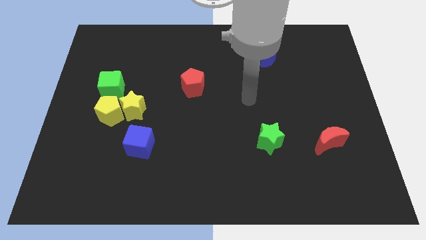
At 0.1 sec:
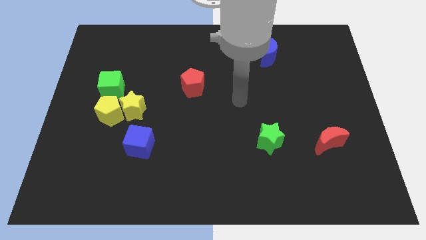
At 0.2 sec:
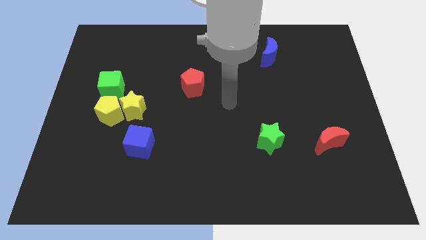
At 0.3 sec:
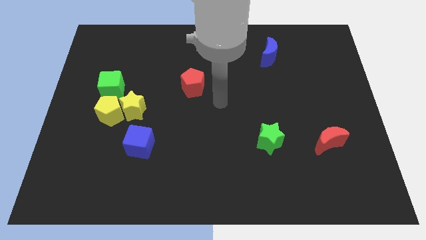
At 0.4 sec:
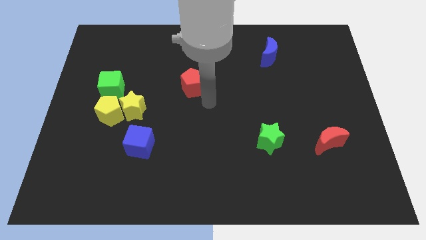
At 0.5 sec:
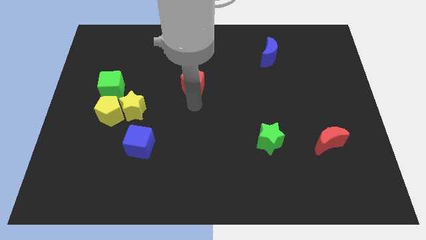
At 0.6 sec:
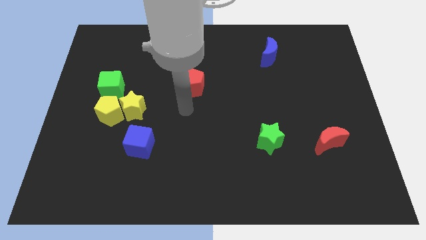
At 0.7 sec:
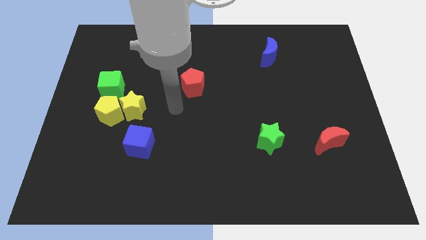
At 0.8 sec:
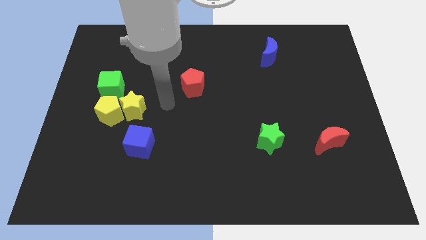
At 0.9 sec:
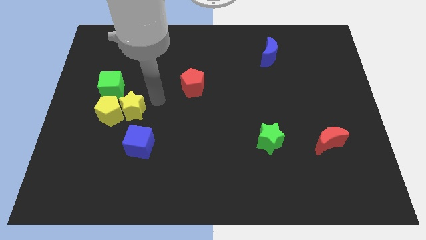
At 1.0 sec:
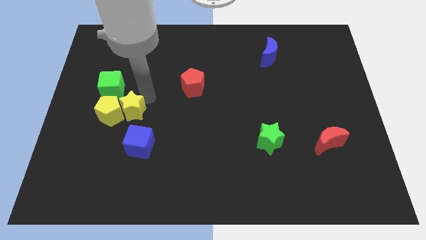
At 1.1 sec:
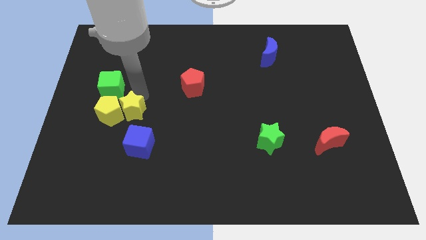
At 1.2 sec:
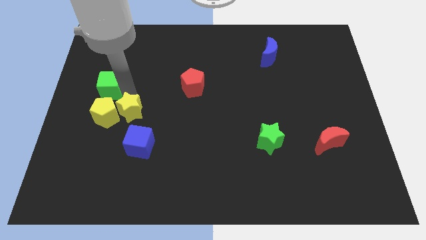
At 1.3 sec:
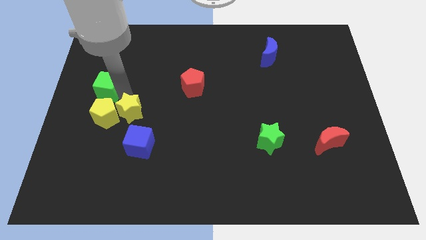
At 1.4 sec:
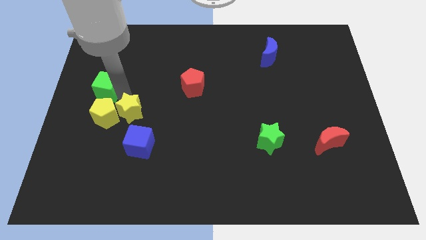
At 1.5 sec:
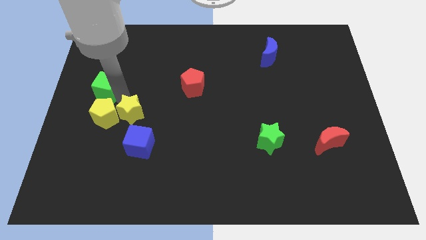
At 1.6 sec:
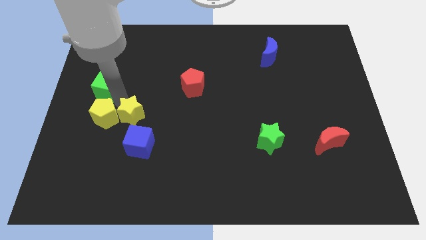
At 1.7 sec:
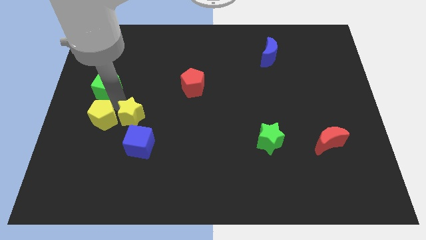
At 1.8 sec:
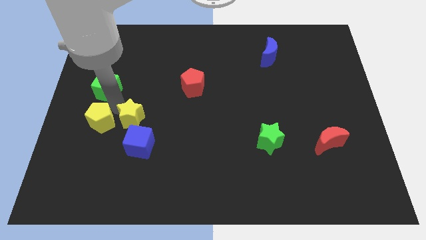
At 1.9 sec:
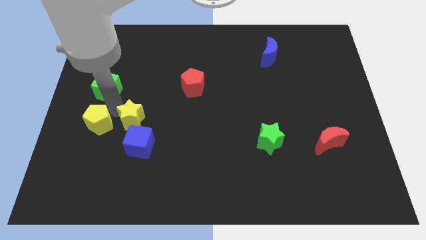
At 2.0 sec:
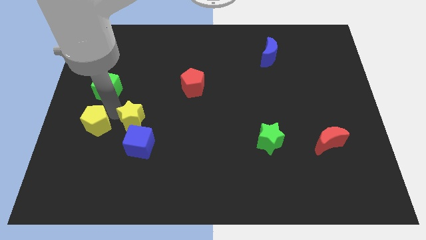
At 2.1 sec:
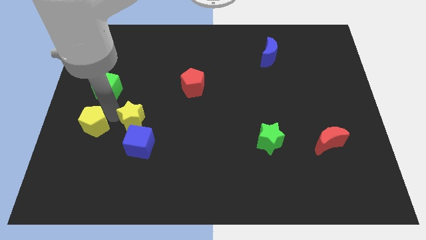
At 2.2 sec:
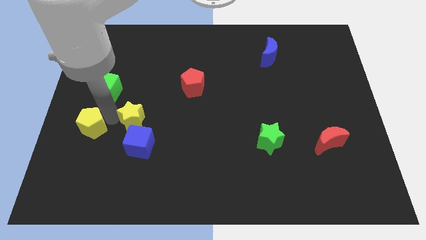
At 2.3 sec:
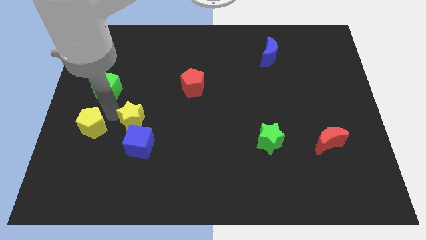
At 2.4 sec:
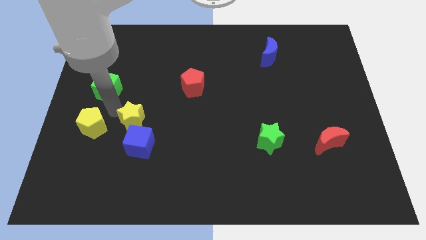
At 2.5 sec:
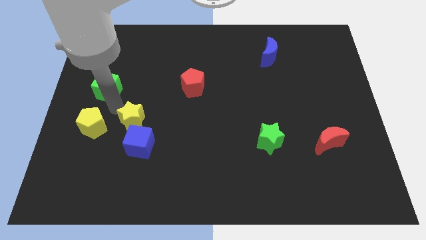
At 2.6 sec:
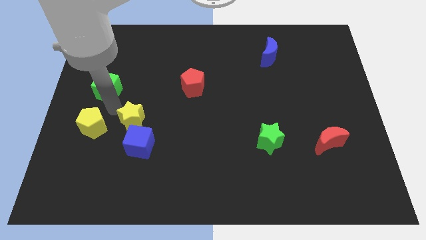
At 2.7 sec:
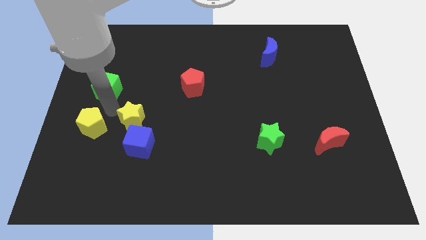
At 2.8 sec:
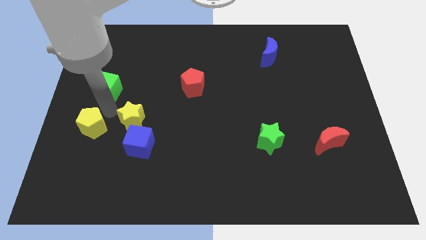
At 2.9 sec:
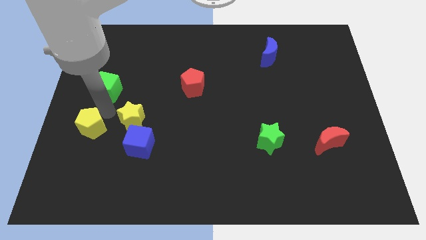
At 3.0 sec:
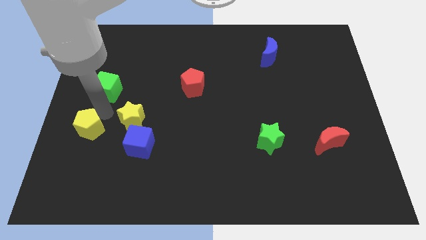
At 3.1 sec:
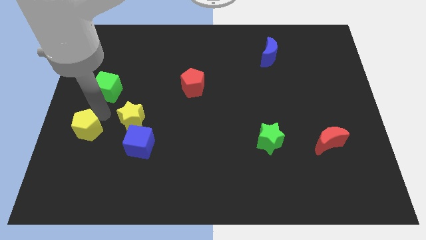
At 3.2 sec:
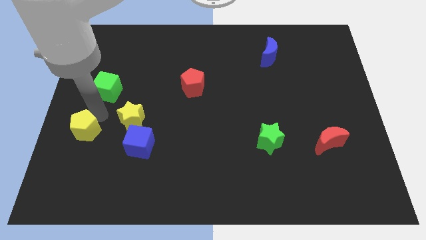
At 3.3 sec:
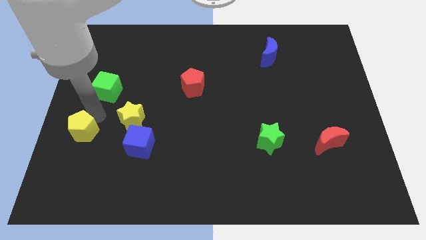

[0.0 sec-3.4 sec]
pull the yellow pentagon apart from the yellow star and green cube

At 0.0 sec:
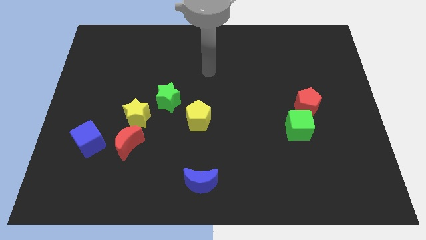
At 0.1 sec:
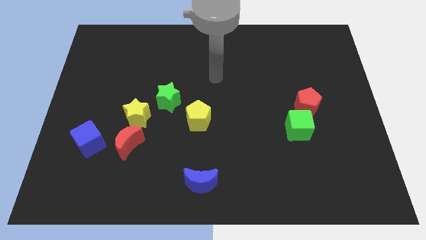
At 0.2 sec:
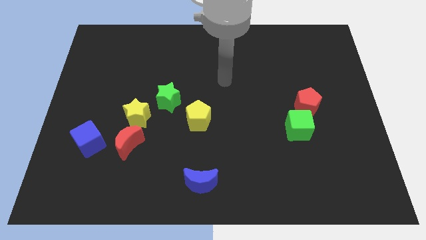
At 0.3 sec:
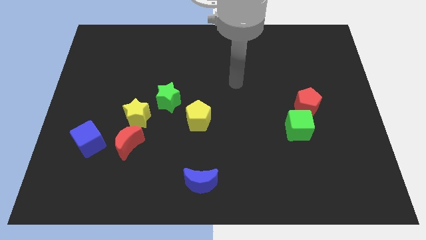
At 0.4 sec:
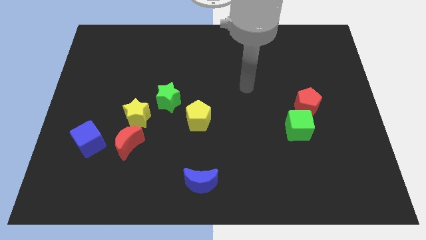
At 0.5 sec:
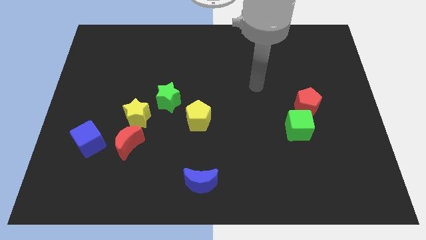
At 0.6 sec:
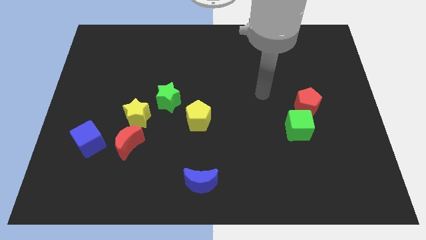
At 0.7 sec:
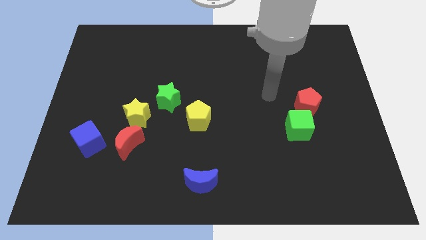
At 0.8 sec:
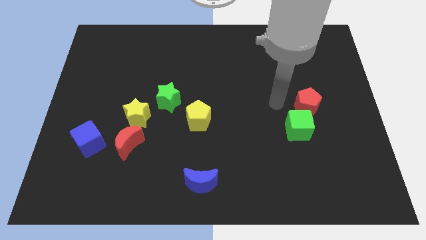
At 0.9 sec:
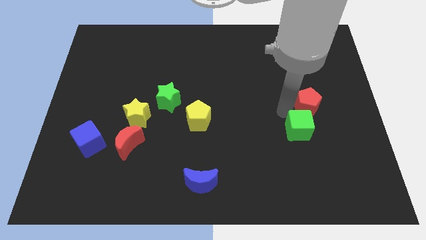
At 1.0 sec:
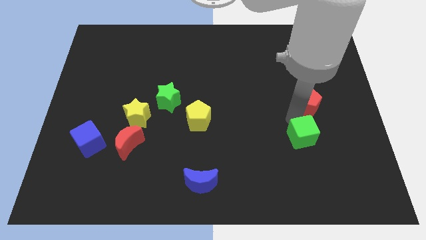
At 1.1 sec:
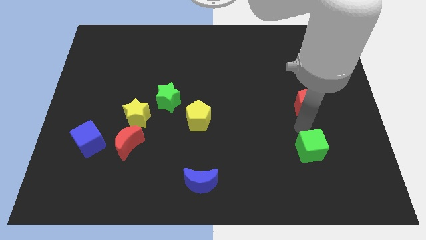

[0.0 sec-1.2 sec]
move the red pentagon away from the green cube

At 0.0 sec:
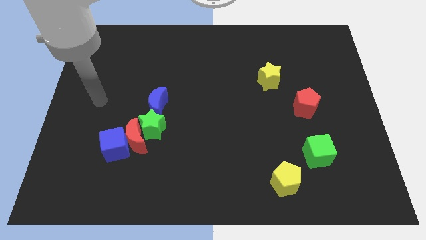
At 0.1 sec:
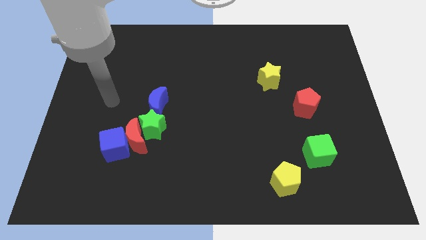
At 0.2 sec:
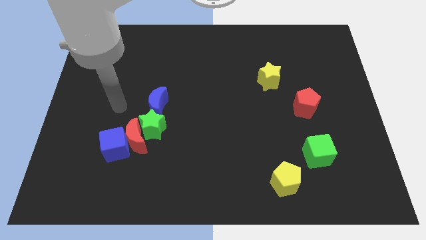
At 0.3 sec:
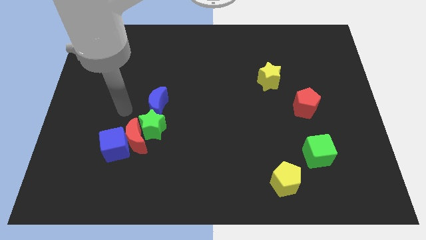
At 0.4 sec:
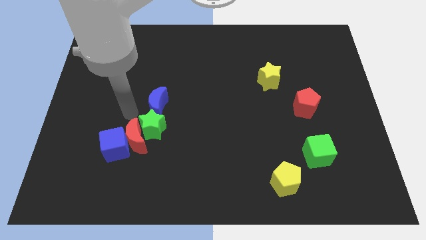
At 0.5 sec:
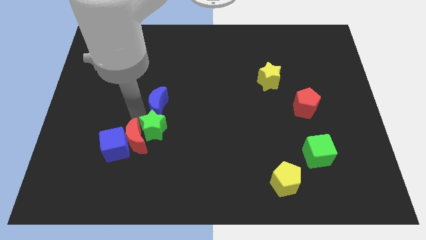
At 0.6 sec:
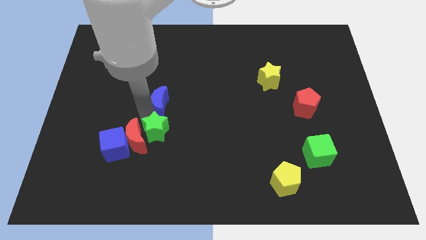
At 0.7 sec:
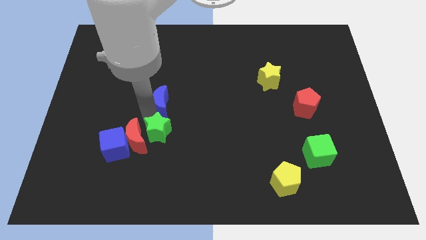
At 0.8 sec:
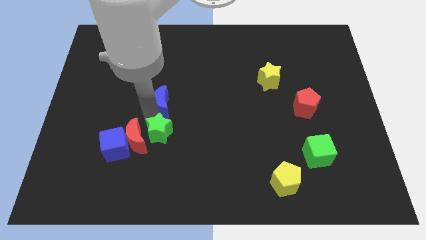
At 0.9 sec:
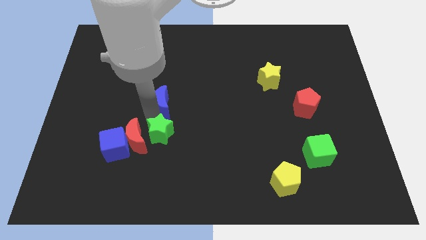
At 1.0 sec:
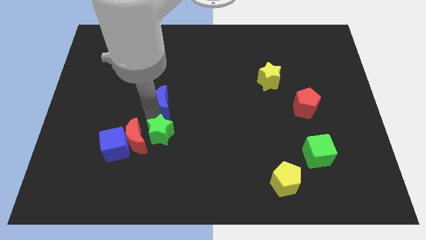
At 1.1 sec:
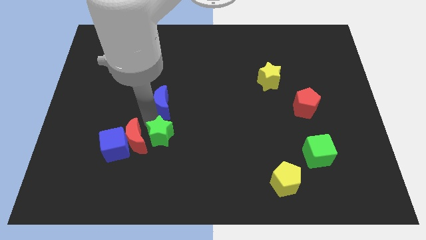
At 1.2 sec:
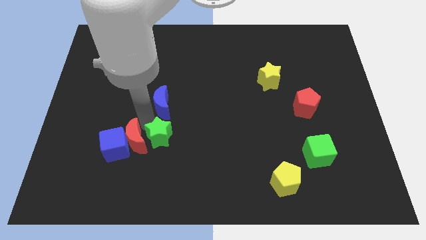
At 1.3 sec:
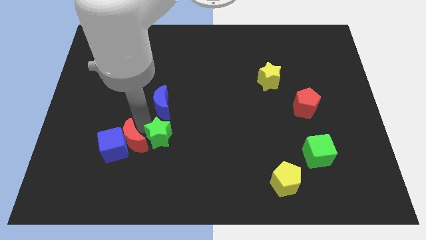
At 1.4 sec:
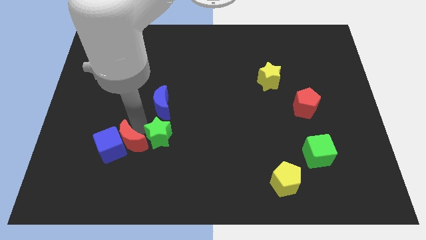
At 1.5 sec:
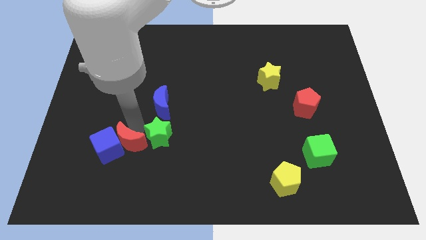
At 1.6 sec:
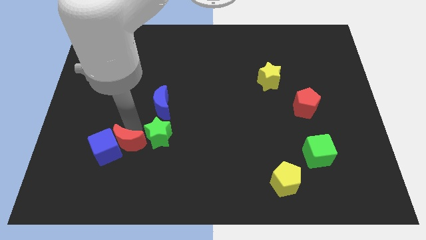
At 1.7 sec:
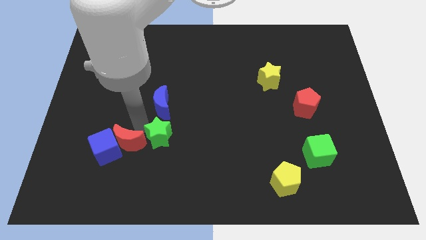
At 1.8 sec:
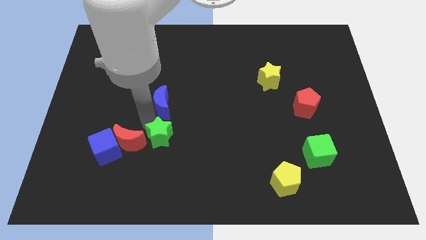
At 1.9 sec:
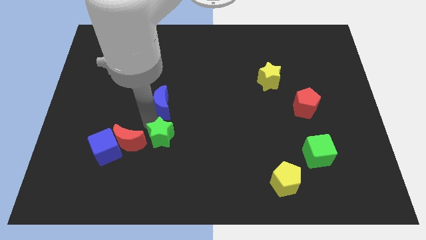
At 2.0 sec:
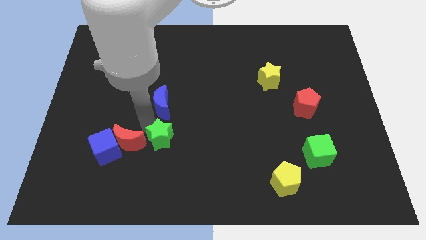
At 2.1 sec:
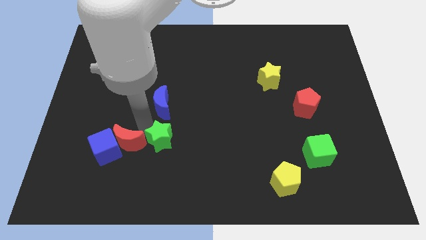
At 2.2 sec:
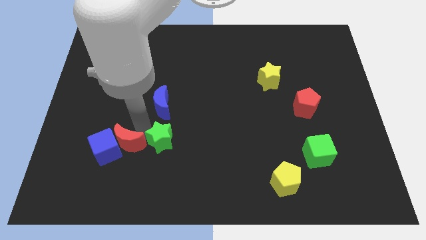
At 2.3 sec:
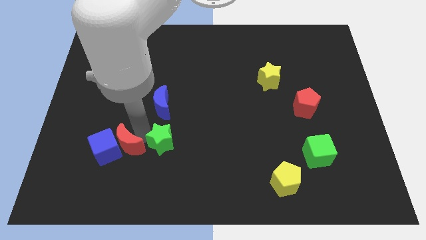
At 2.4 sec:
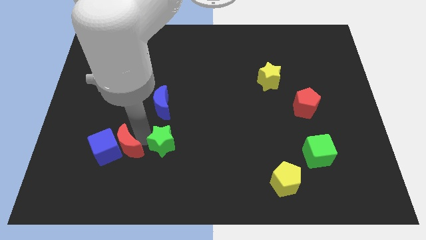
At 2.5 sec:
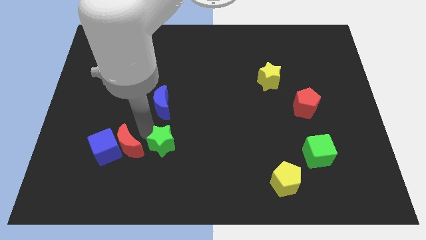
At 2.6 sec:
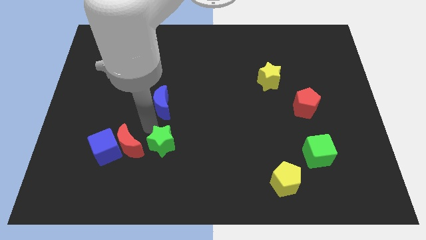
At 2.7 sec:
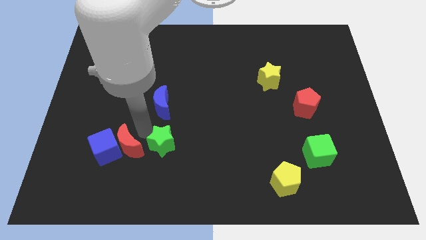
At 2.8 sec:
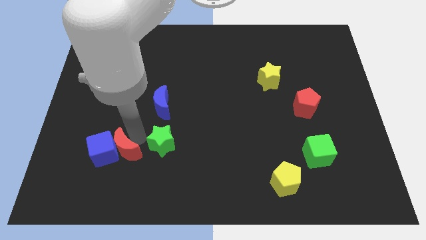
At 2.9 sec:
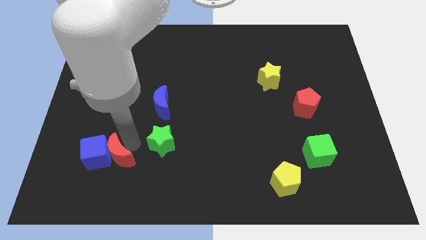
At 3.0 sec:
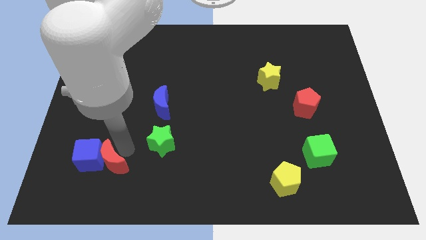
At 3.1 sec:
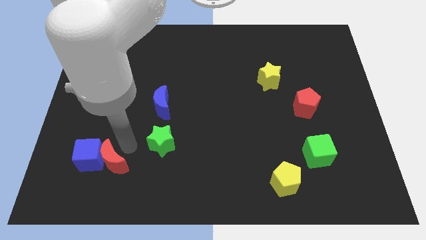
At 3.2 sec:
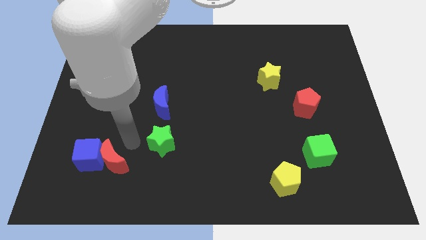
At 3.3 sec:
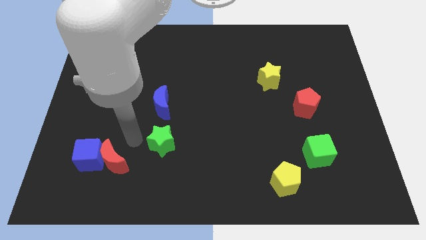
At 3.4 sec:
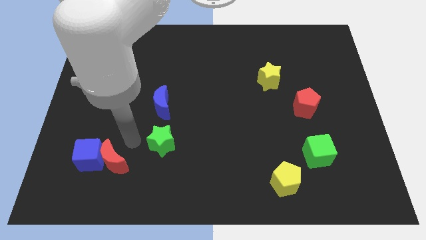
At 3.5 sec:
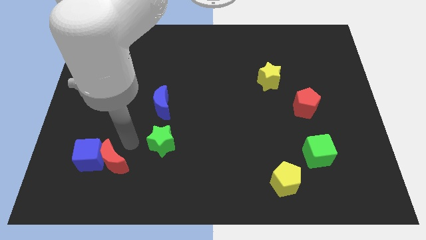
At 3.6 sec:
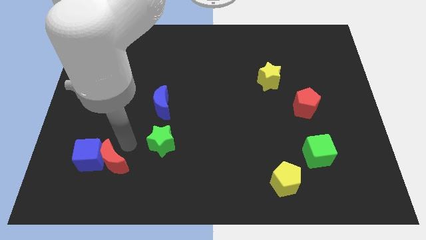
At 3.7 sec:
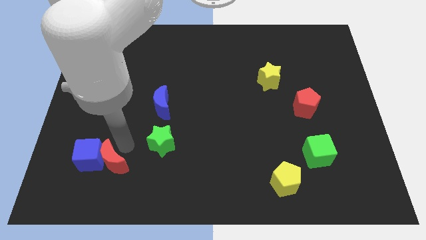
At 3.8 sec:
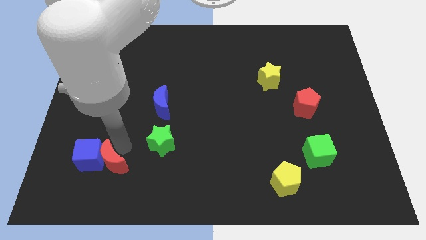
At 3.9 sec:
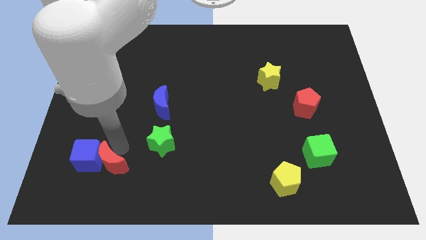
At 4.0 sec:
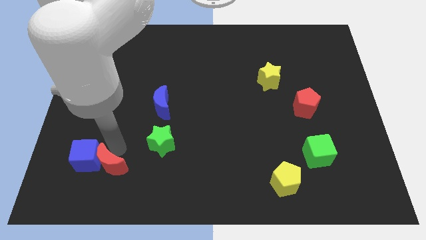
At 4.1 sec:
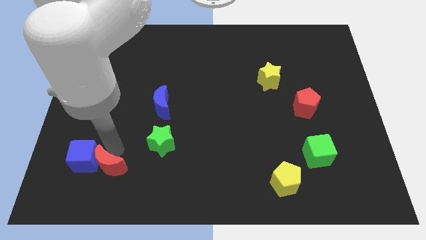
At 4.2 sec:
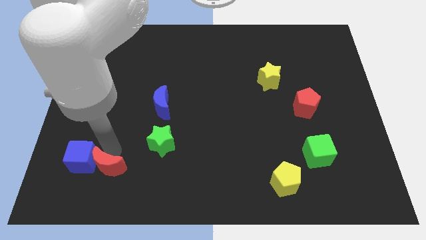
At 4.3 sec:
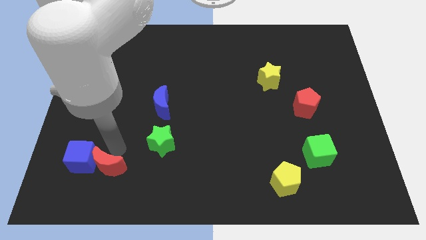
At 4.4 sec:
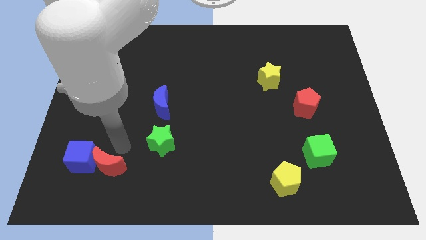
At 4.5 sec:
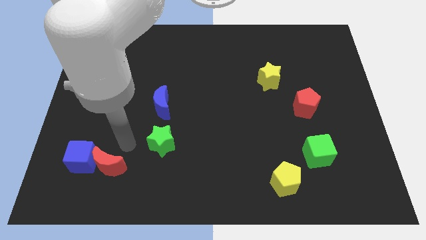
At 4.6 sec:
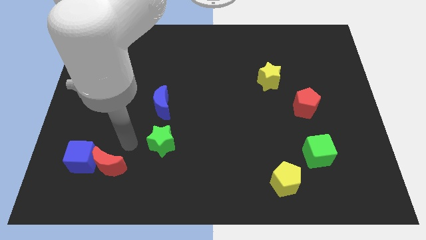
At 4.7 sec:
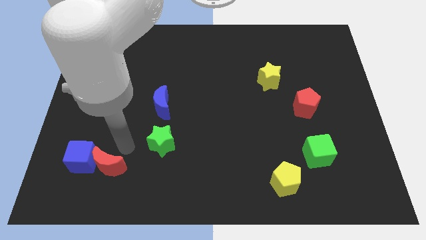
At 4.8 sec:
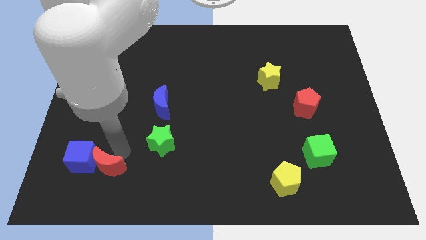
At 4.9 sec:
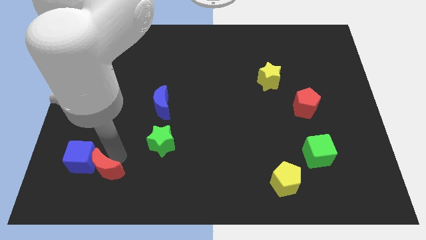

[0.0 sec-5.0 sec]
pull the red moon apart from the blue cube, green star, and blue moon
